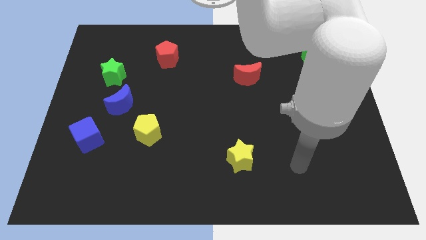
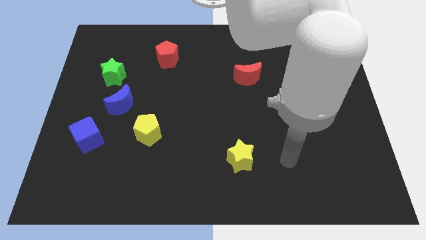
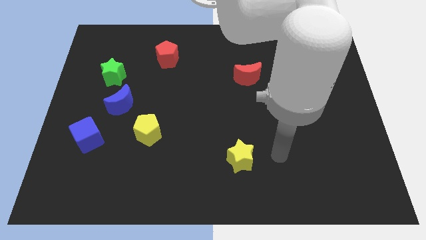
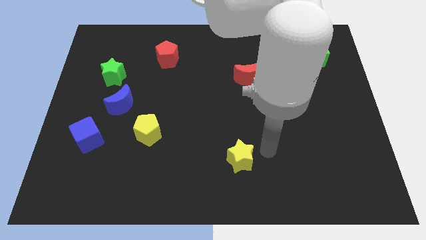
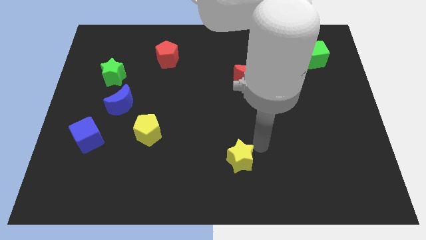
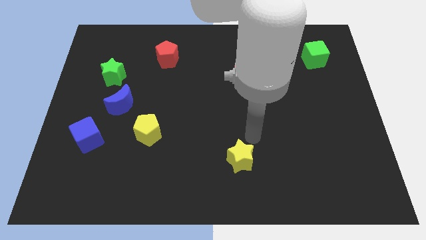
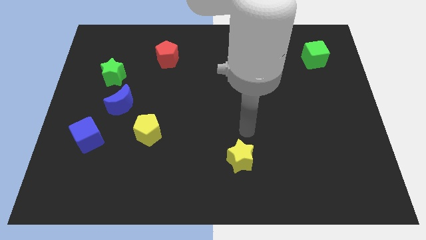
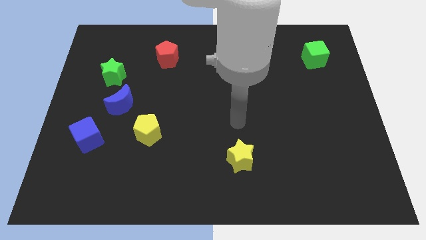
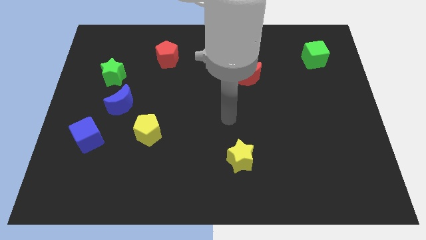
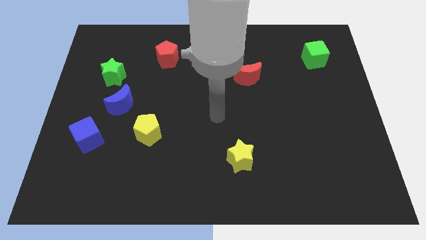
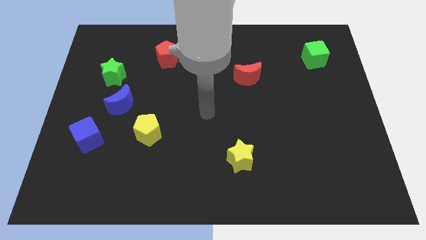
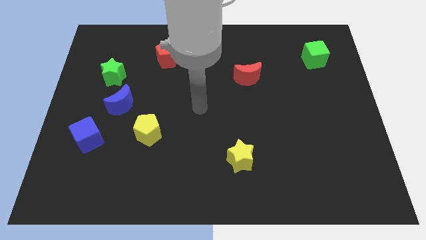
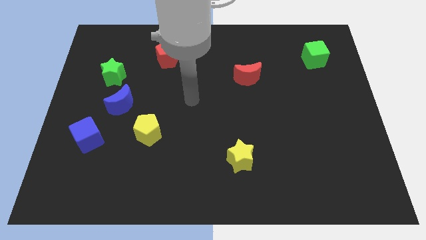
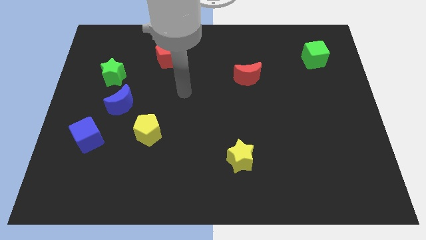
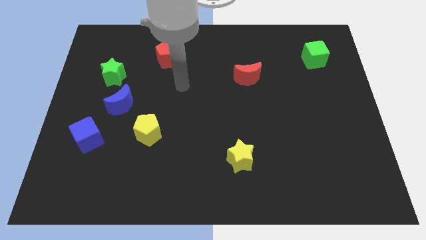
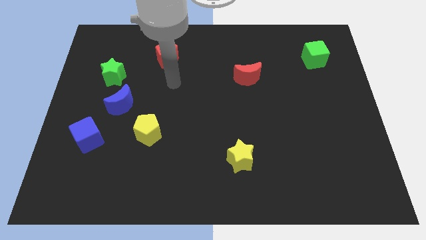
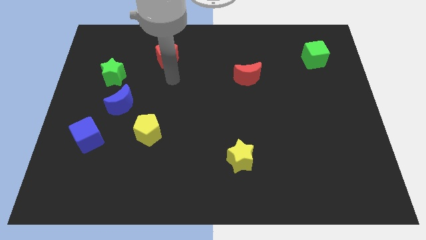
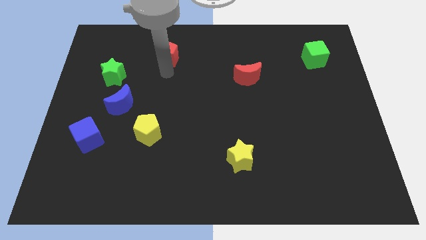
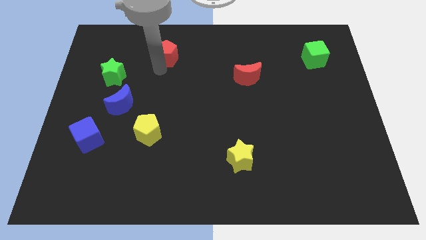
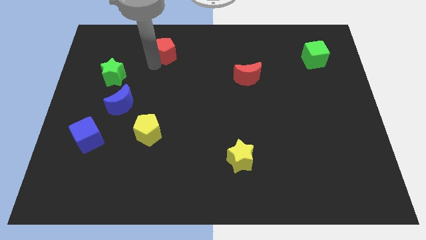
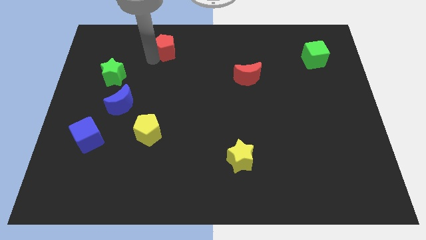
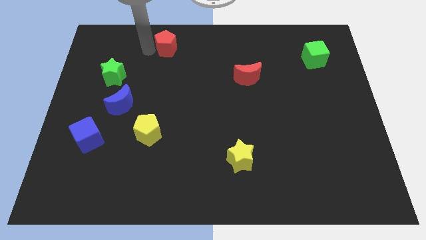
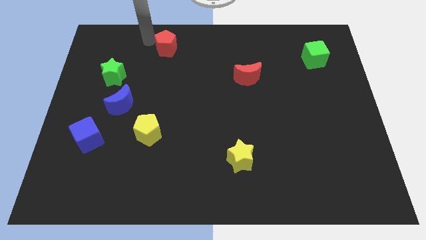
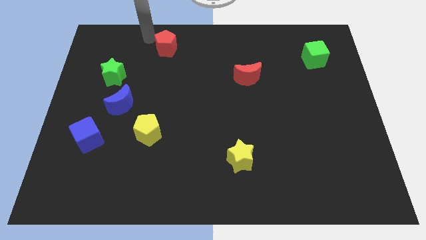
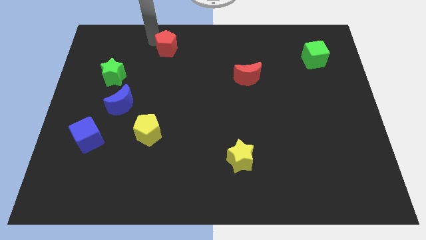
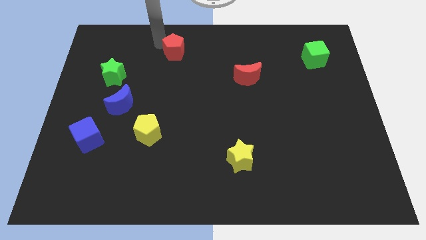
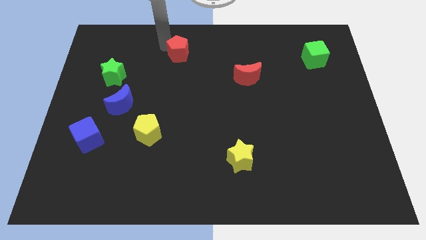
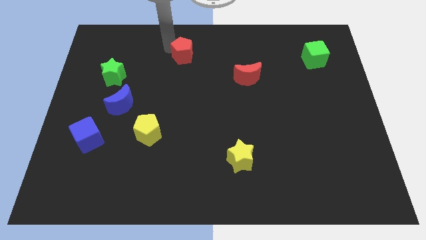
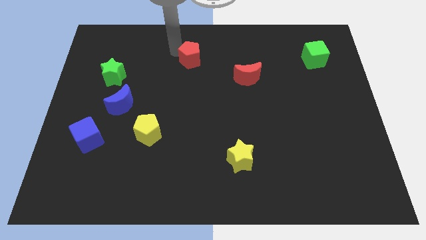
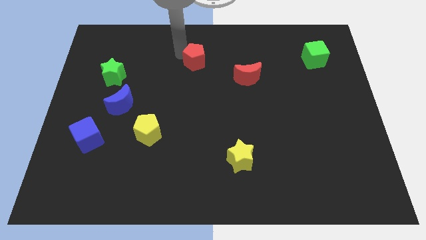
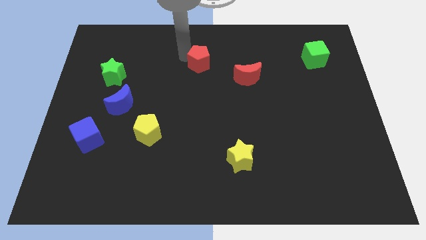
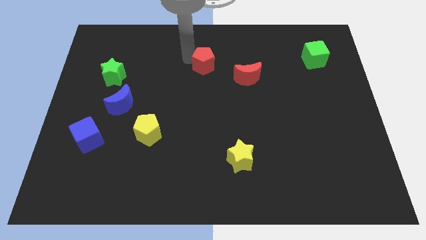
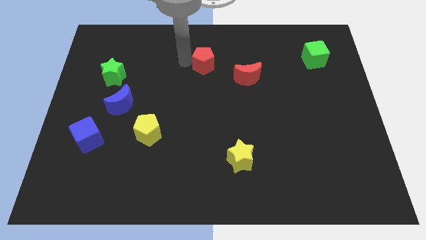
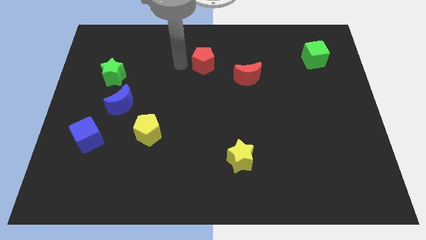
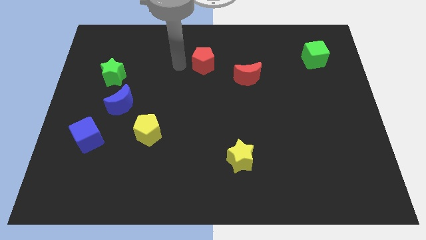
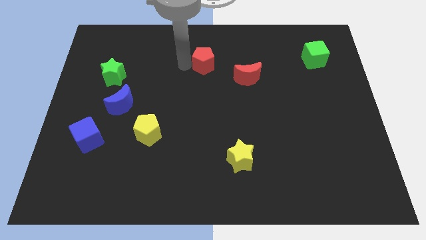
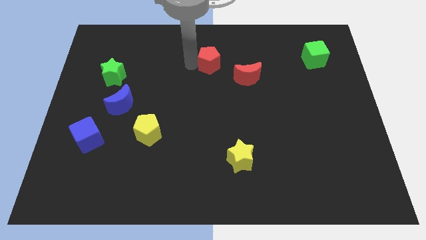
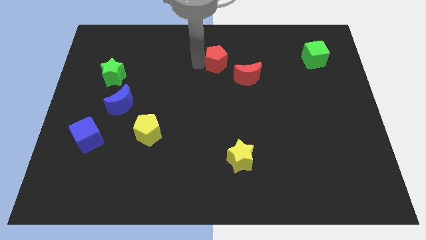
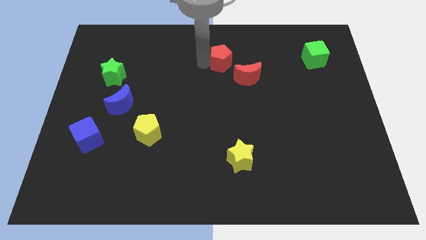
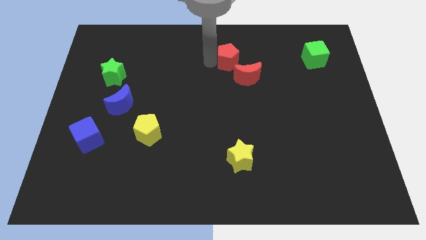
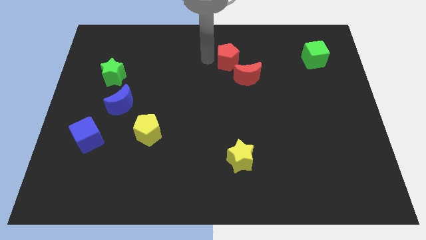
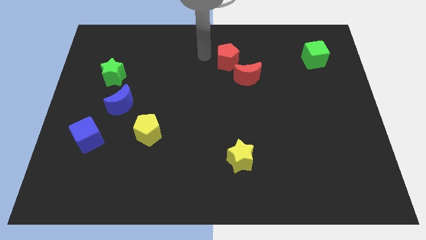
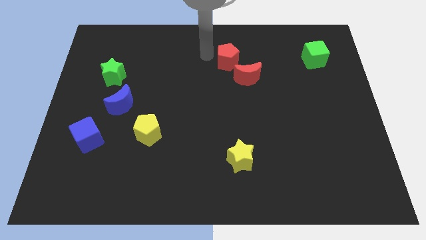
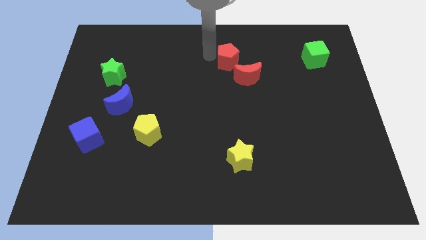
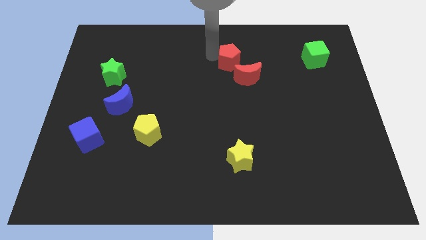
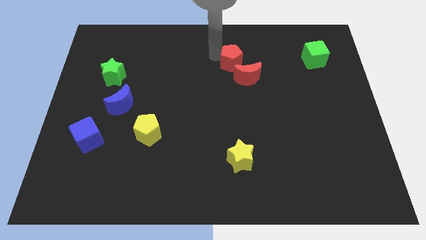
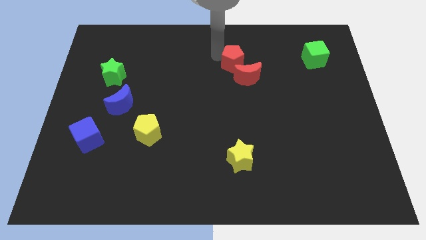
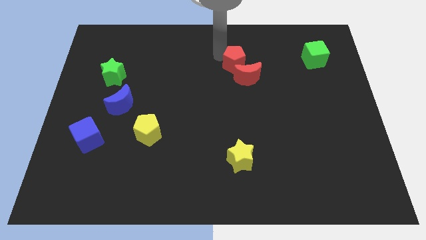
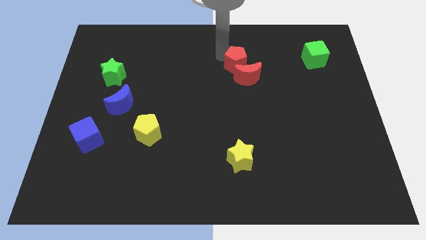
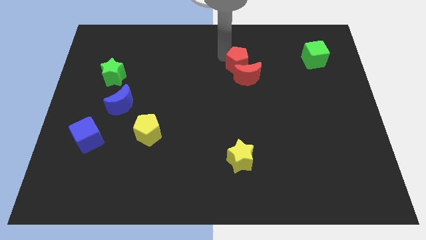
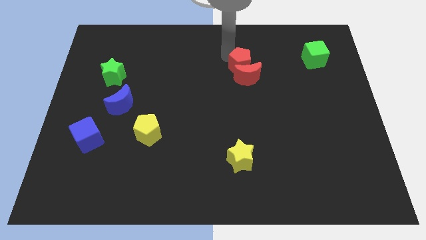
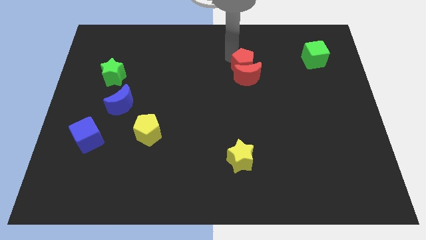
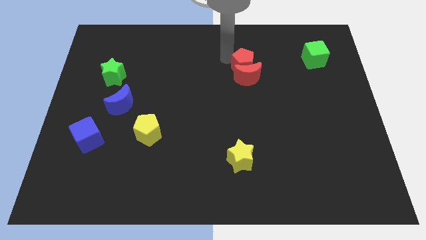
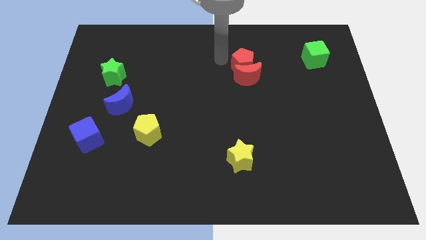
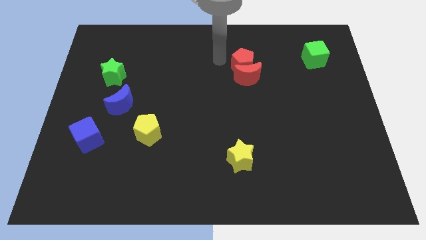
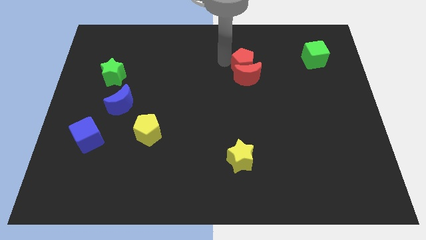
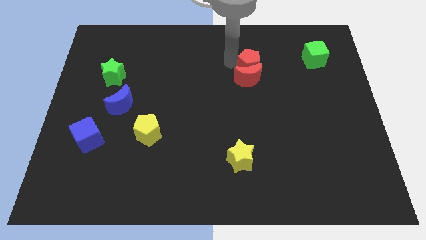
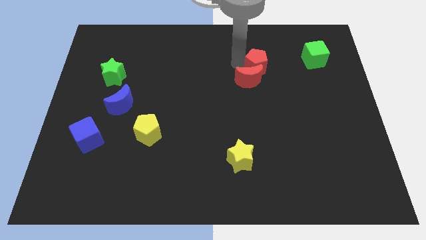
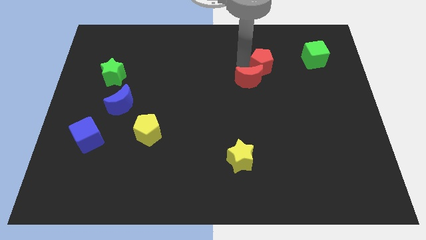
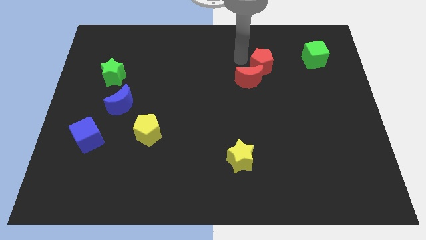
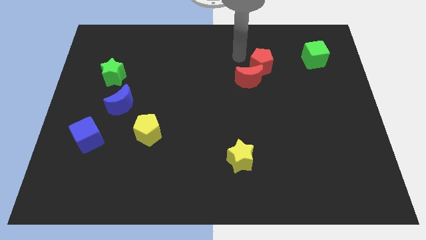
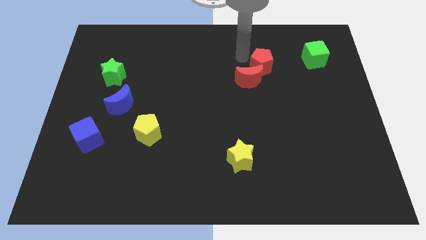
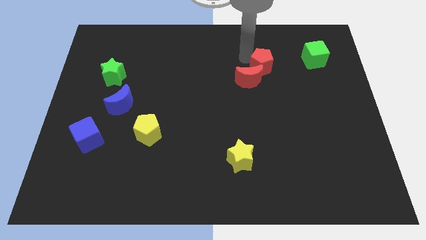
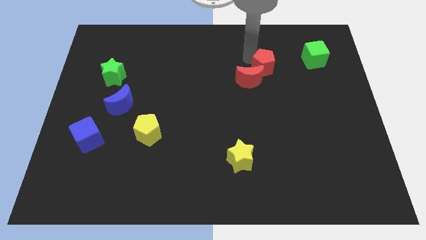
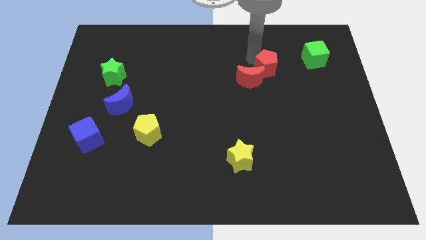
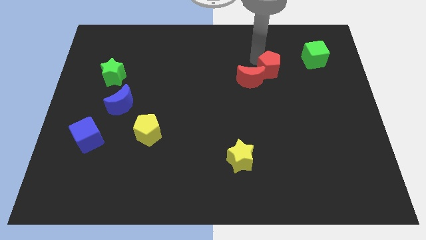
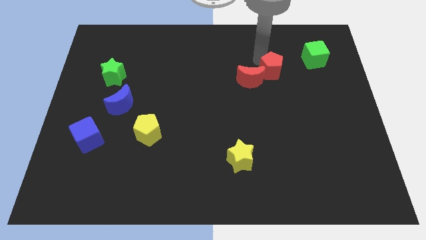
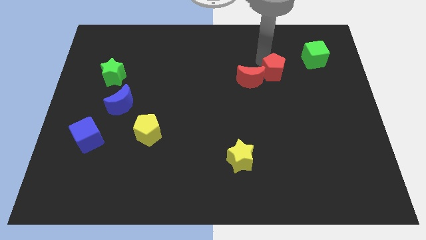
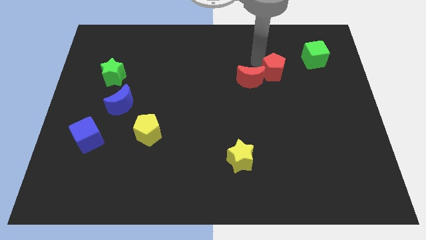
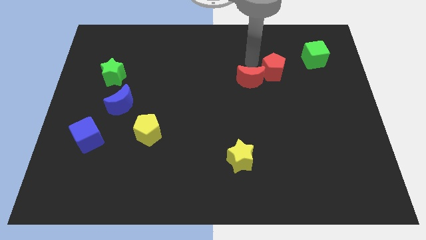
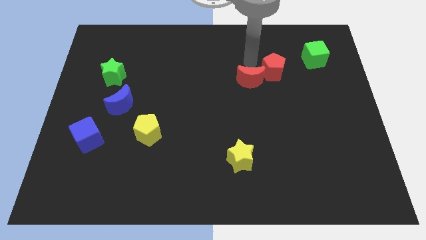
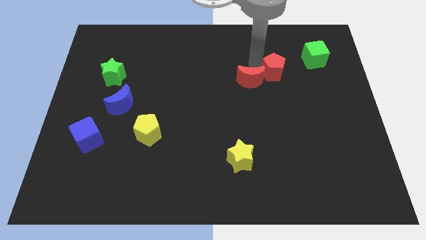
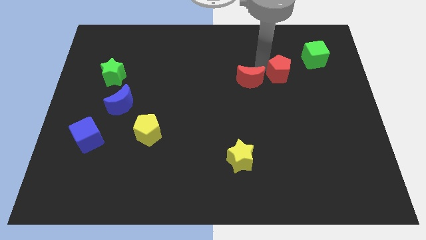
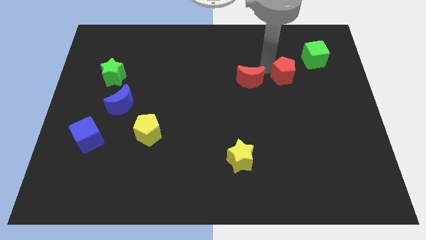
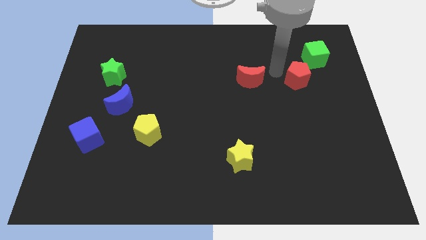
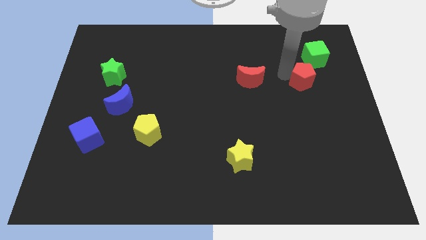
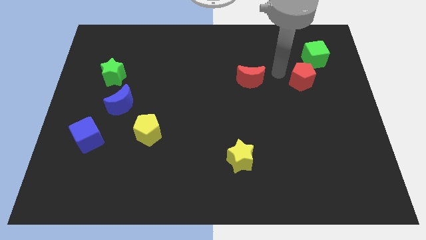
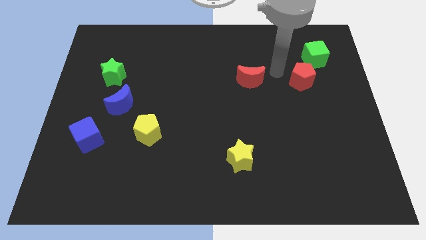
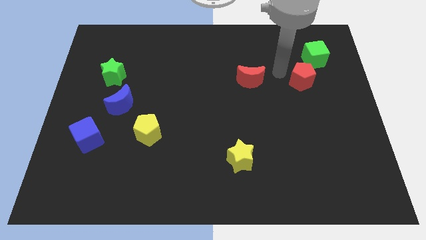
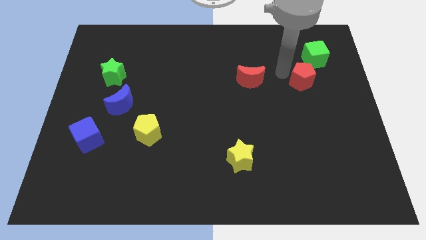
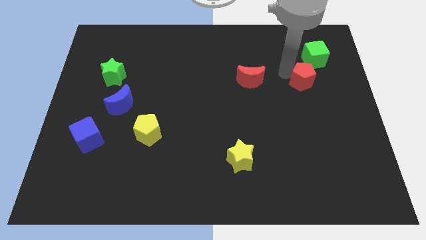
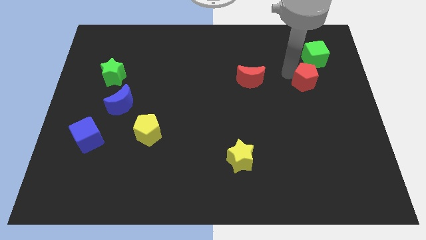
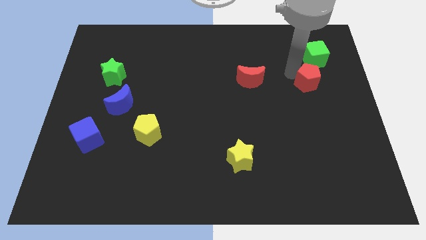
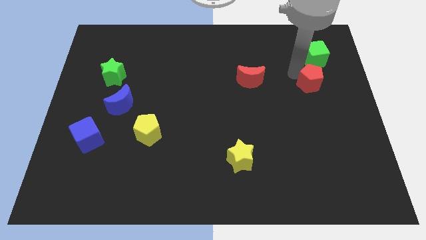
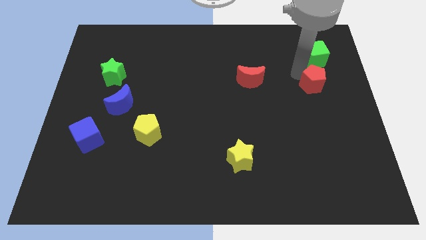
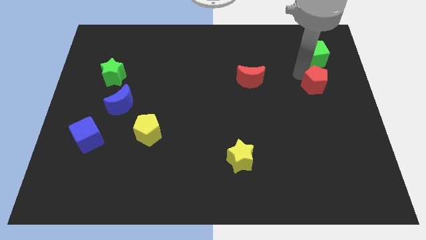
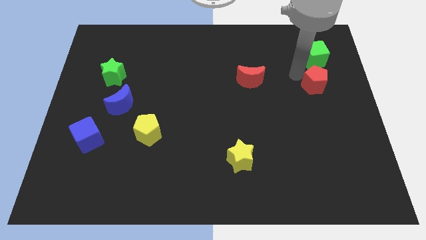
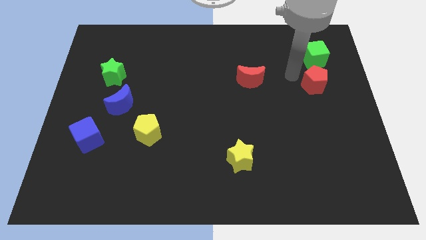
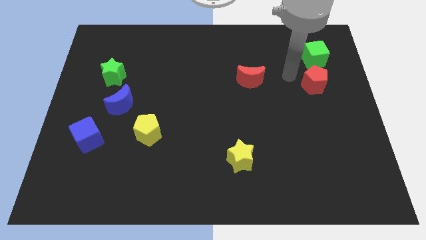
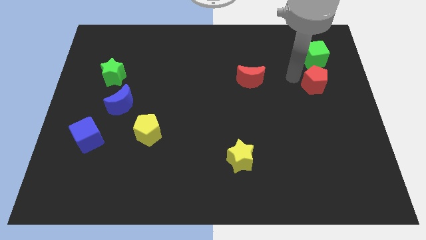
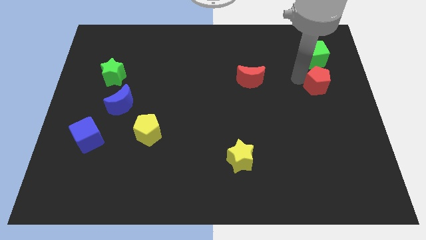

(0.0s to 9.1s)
move the red pentagon to the right side of the board
